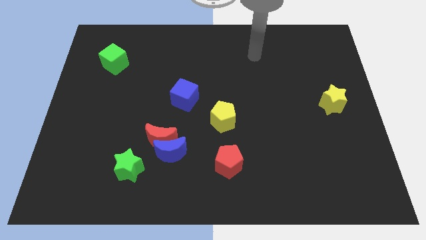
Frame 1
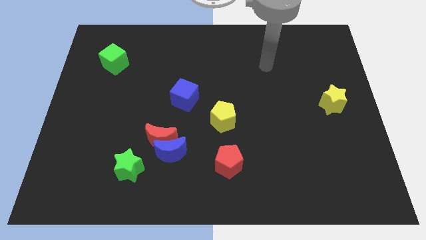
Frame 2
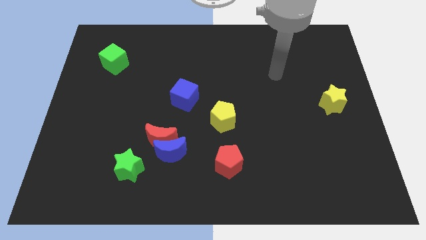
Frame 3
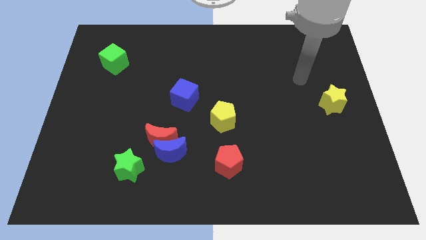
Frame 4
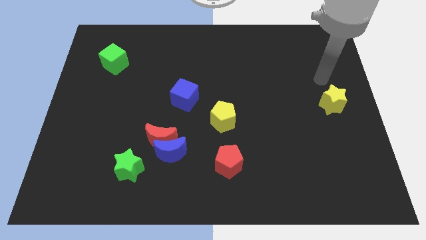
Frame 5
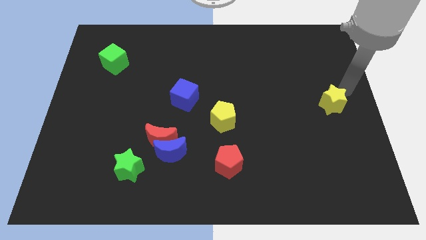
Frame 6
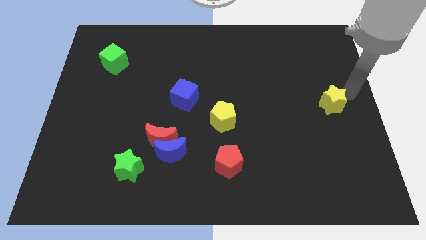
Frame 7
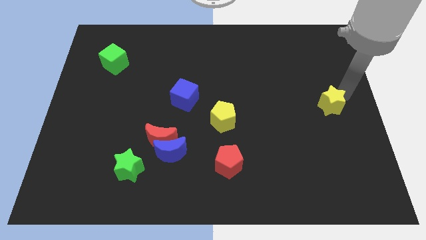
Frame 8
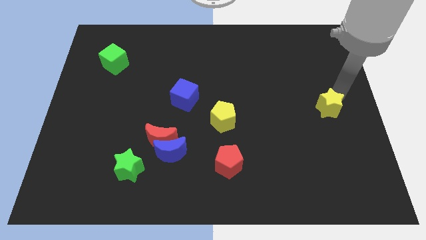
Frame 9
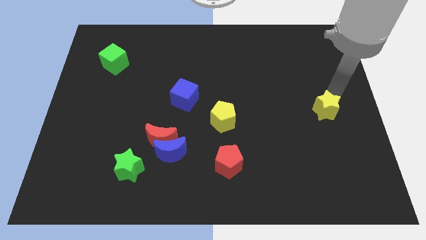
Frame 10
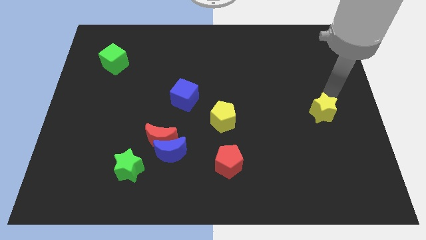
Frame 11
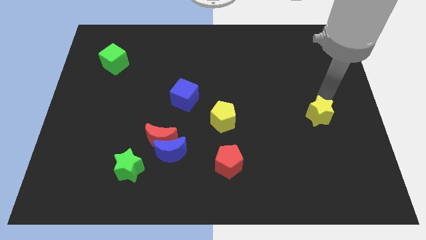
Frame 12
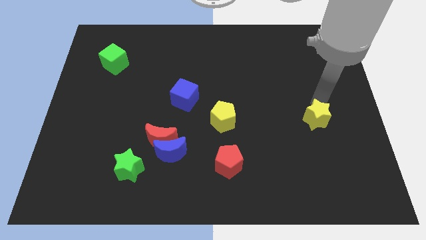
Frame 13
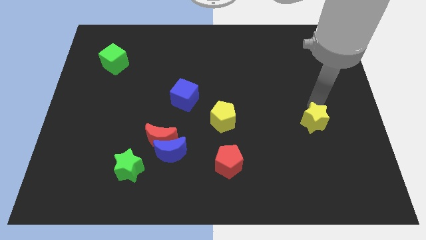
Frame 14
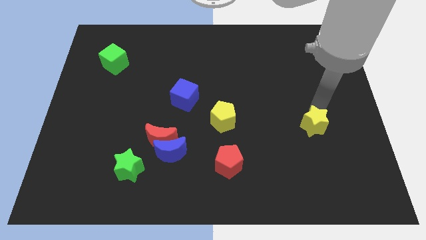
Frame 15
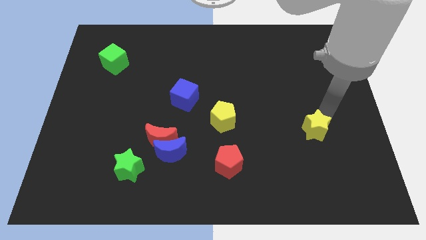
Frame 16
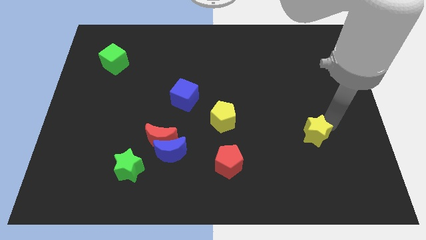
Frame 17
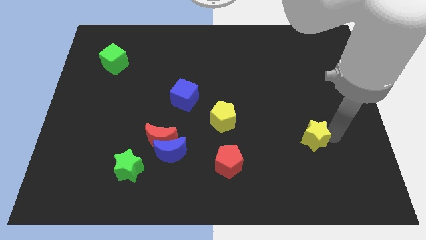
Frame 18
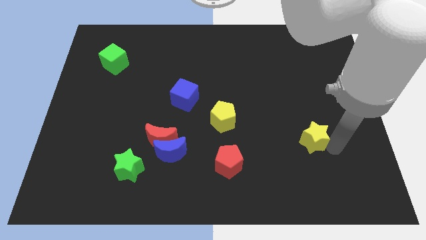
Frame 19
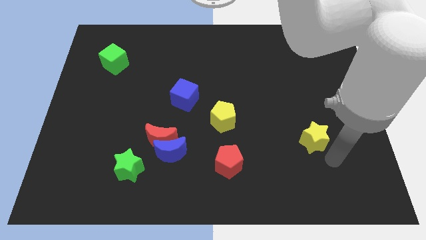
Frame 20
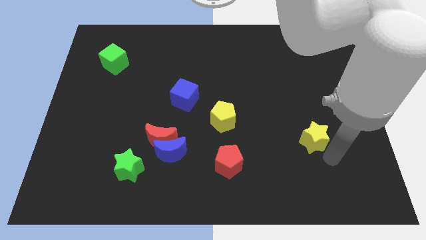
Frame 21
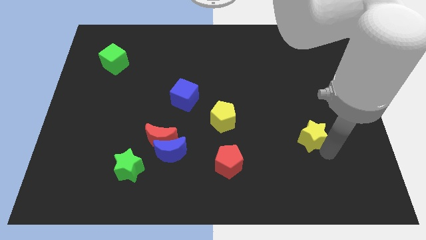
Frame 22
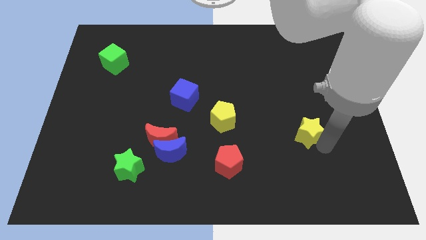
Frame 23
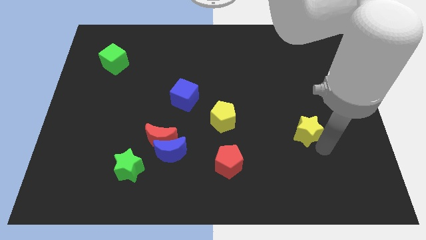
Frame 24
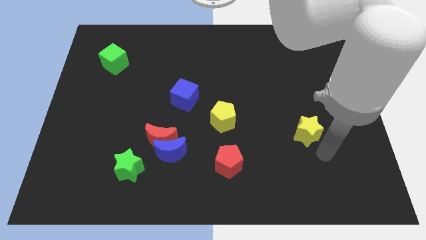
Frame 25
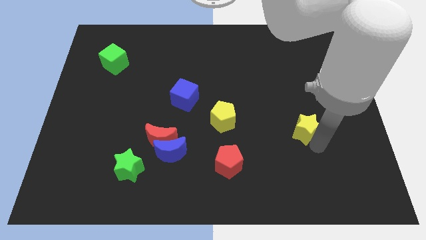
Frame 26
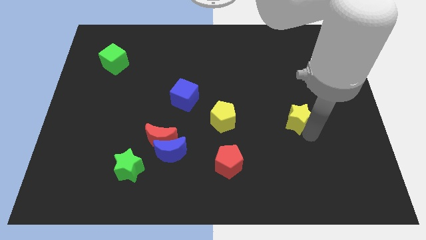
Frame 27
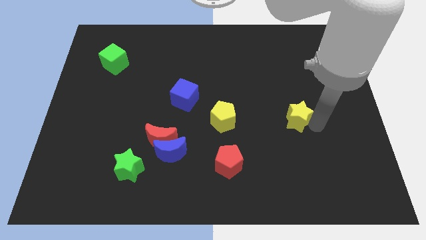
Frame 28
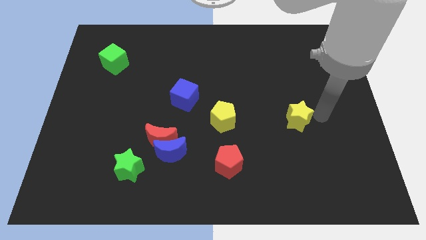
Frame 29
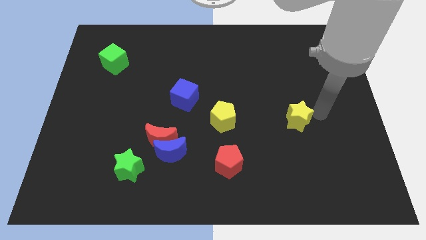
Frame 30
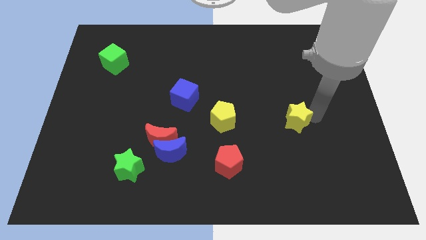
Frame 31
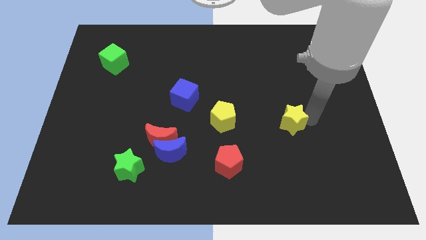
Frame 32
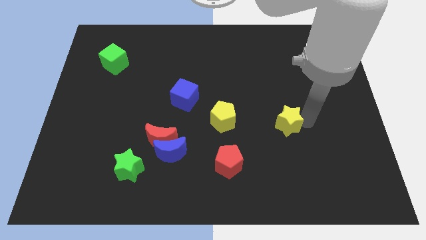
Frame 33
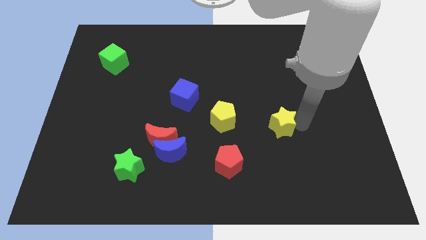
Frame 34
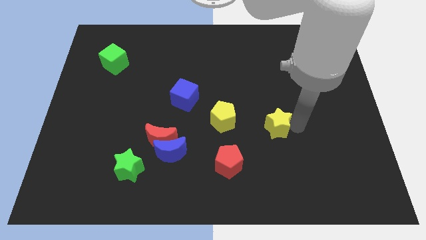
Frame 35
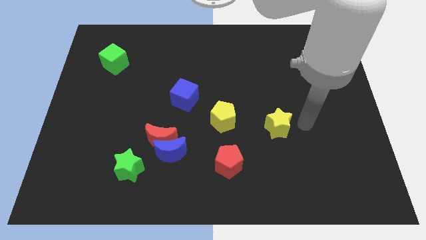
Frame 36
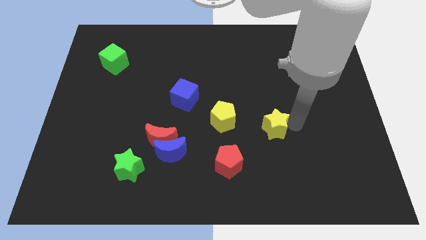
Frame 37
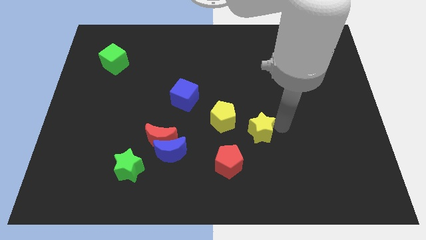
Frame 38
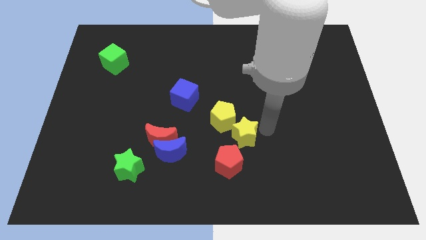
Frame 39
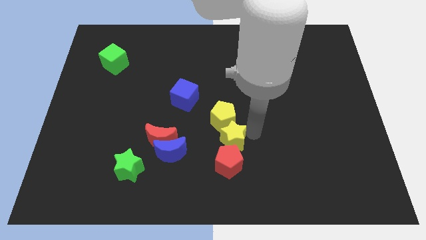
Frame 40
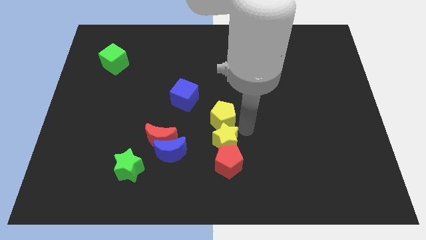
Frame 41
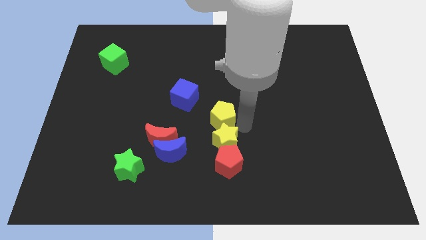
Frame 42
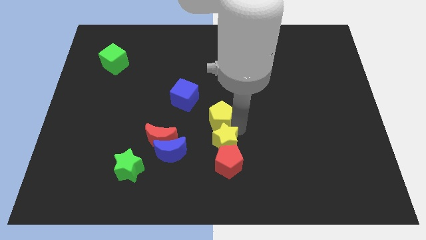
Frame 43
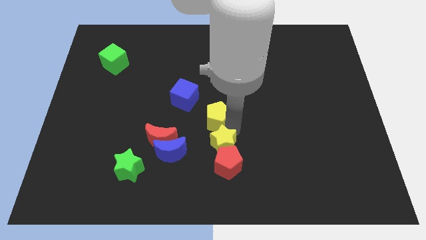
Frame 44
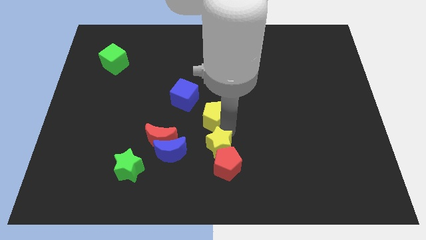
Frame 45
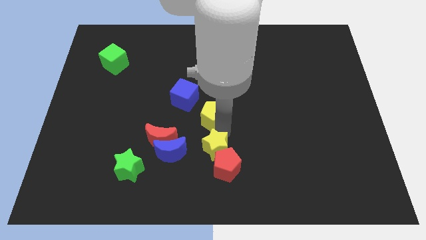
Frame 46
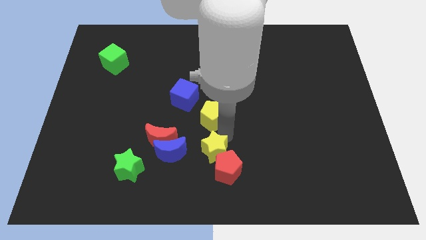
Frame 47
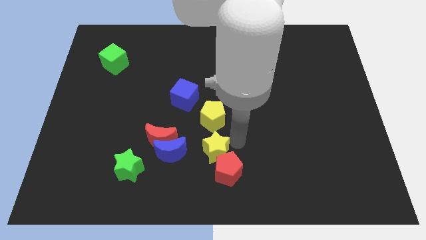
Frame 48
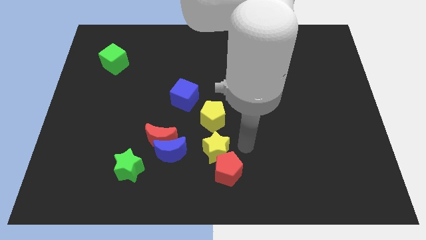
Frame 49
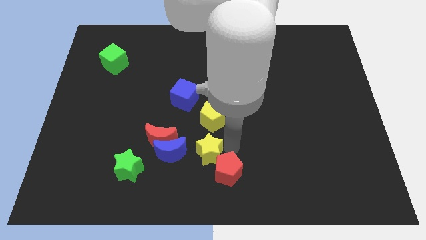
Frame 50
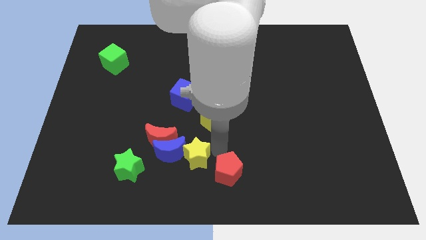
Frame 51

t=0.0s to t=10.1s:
move the yellow star towards the blue moon

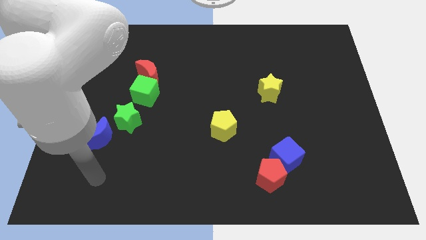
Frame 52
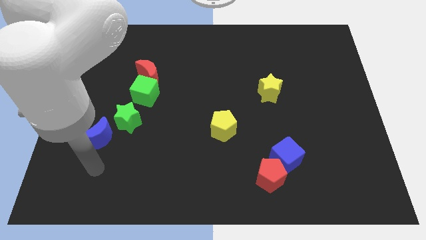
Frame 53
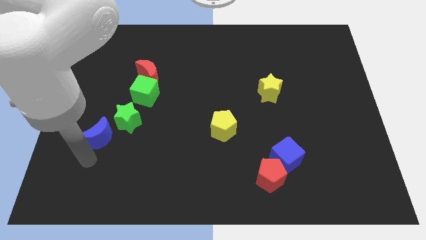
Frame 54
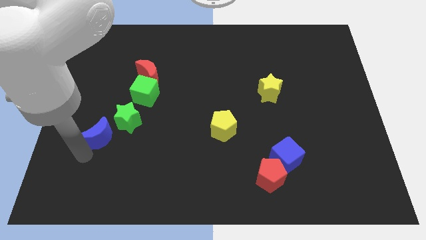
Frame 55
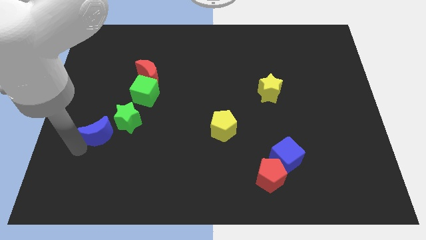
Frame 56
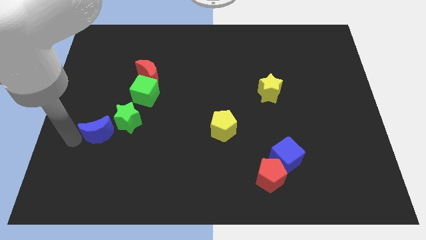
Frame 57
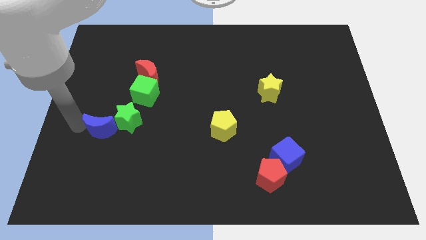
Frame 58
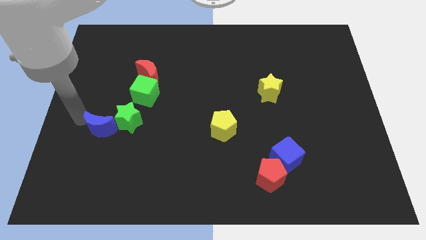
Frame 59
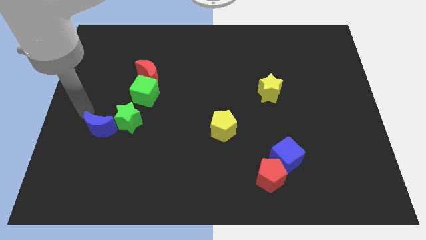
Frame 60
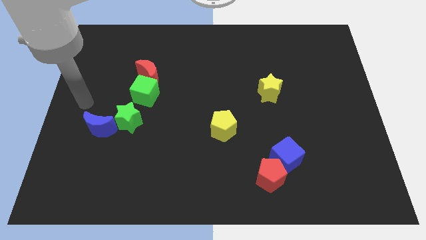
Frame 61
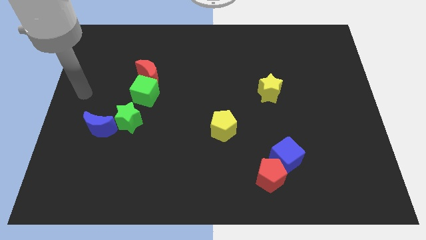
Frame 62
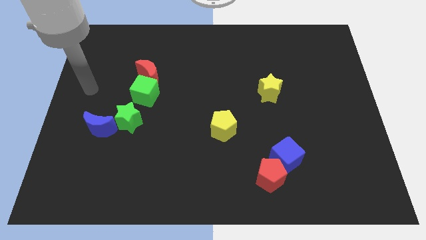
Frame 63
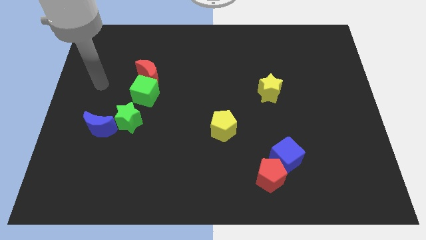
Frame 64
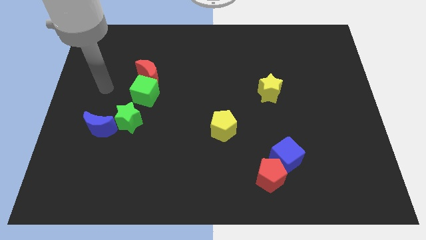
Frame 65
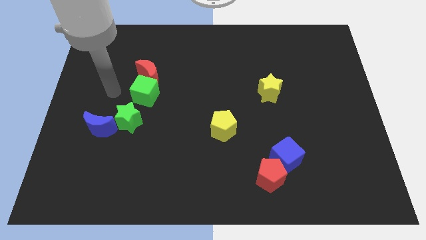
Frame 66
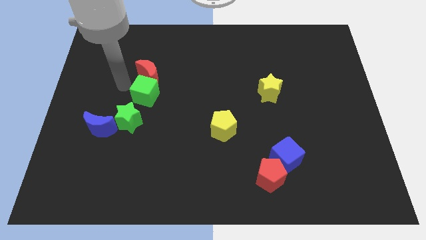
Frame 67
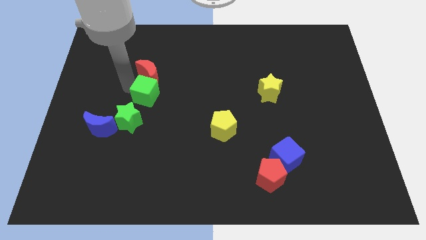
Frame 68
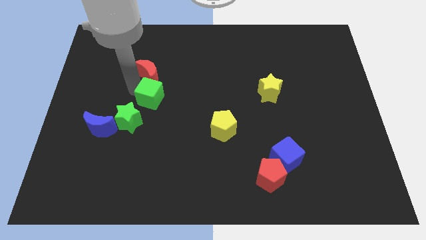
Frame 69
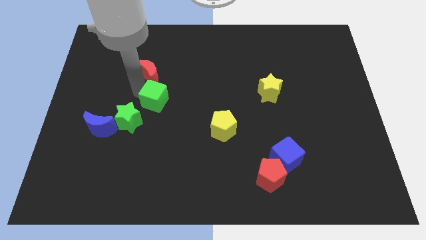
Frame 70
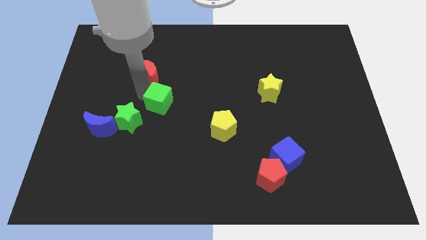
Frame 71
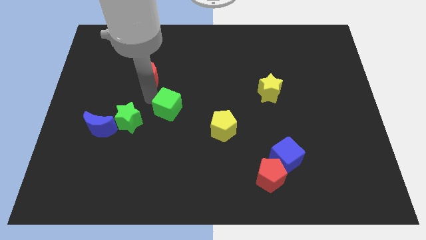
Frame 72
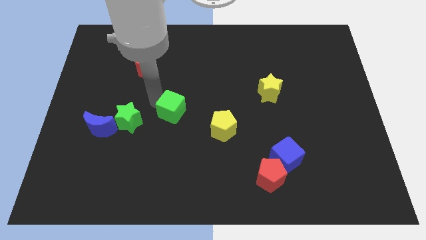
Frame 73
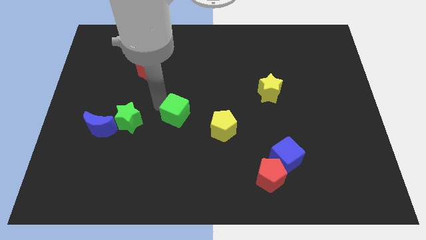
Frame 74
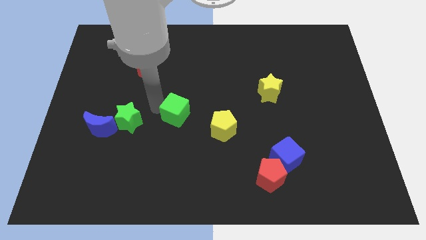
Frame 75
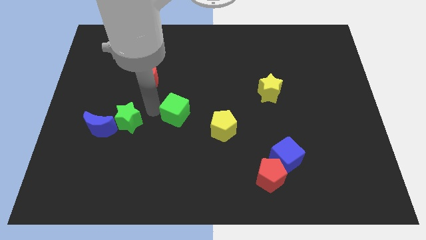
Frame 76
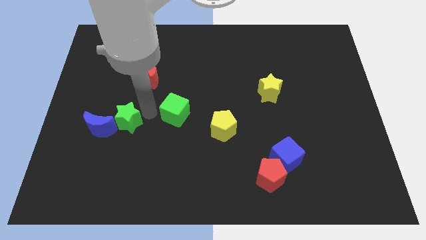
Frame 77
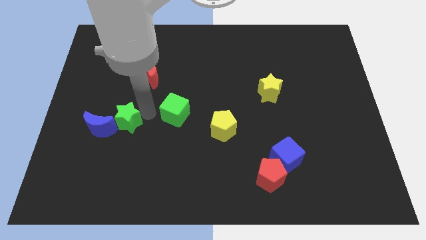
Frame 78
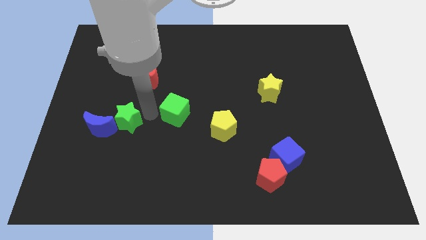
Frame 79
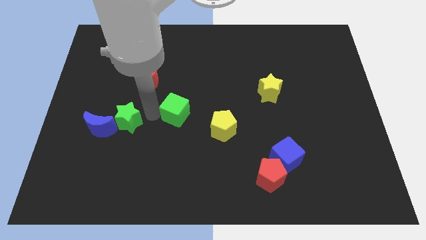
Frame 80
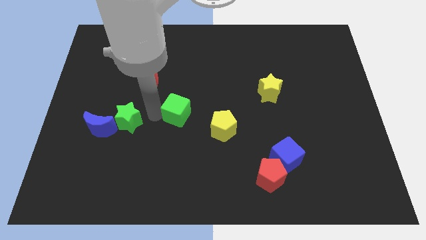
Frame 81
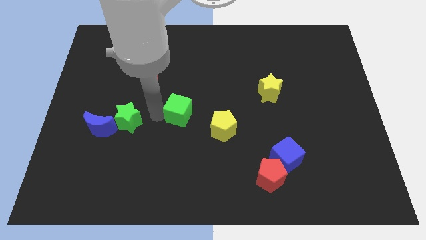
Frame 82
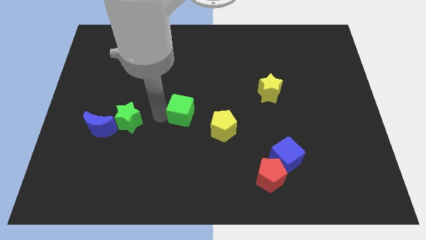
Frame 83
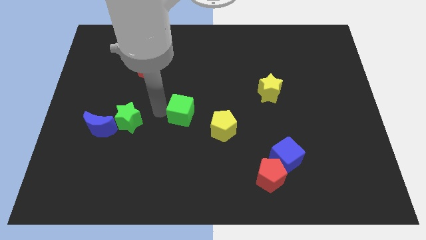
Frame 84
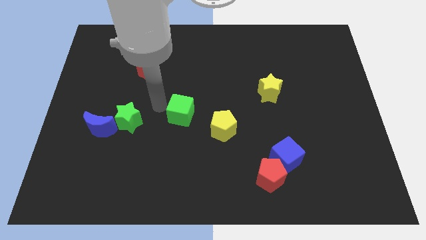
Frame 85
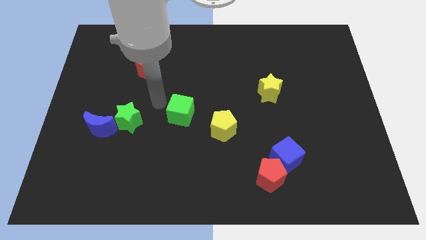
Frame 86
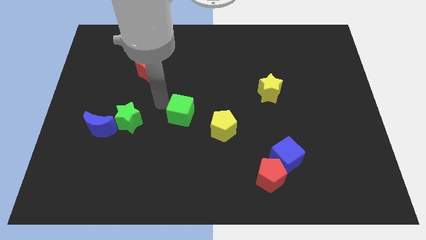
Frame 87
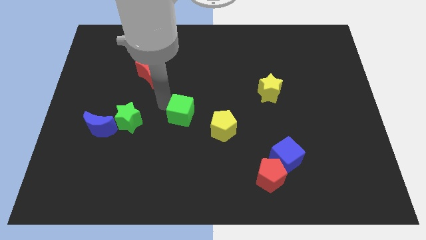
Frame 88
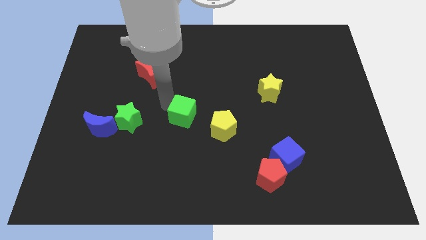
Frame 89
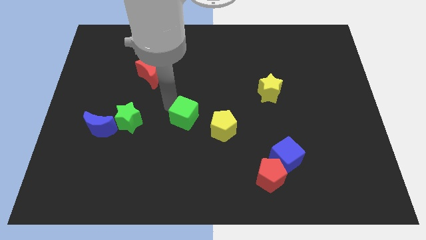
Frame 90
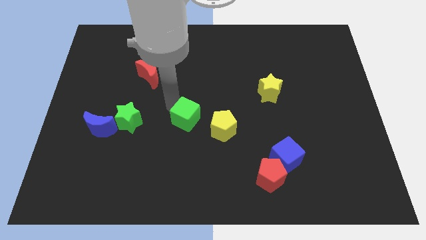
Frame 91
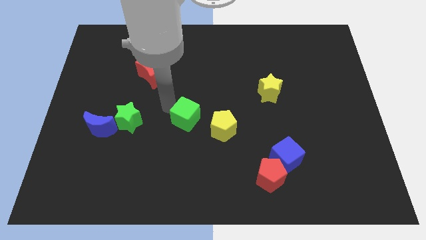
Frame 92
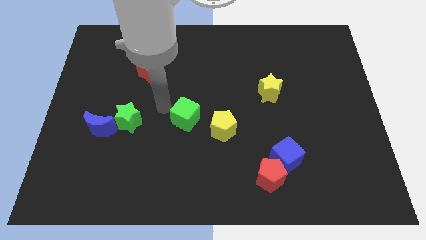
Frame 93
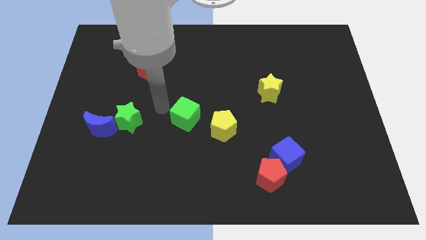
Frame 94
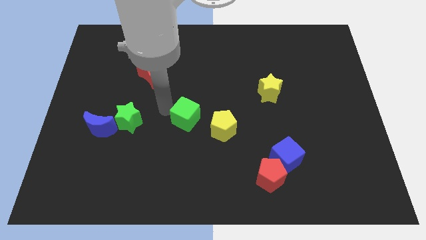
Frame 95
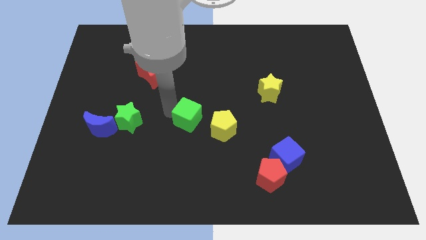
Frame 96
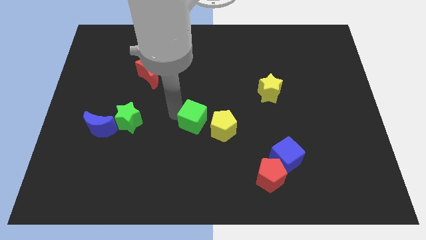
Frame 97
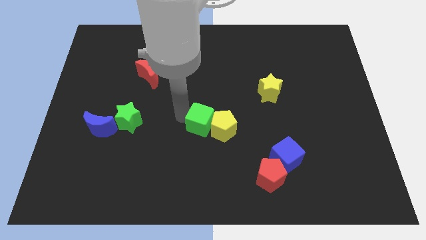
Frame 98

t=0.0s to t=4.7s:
slide the green cube next to the yellow pentagon
